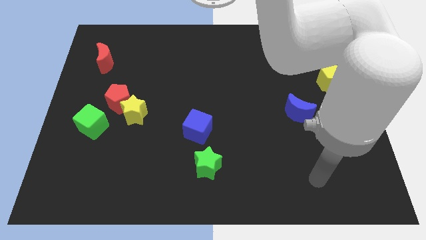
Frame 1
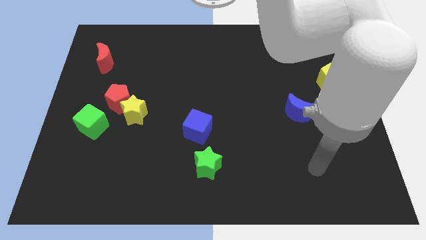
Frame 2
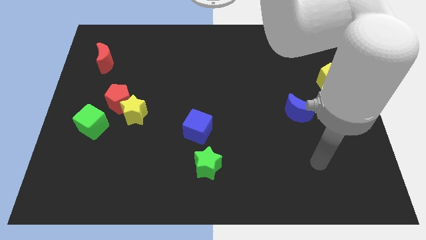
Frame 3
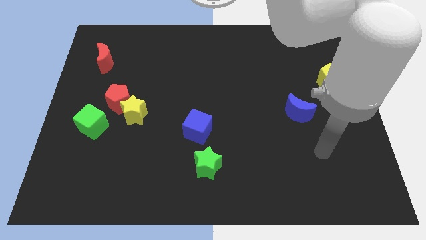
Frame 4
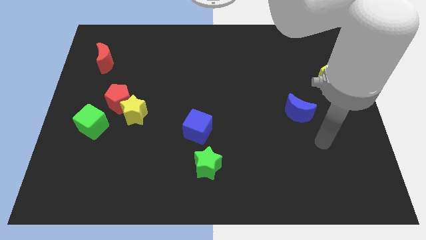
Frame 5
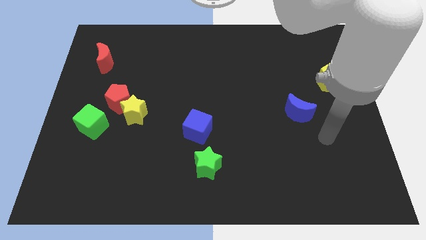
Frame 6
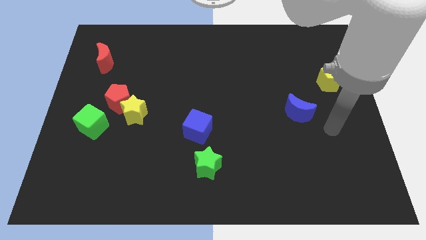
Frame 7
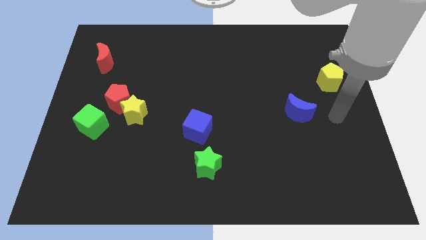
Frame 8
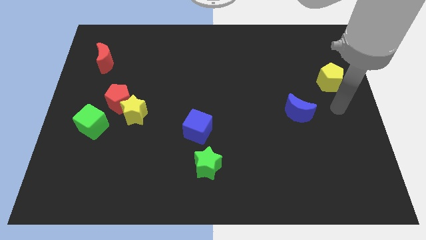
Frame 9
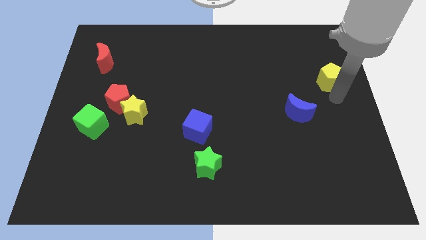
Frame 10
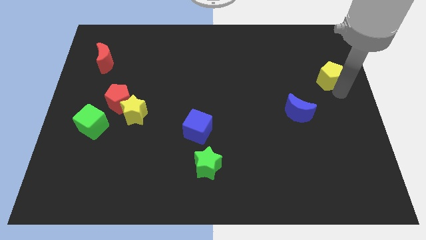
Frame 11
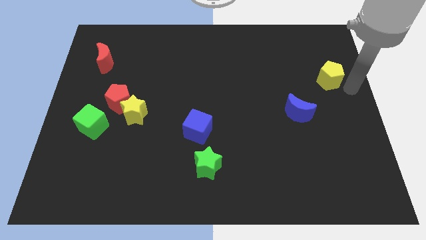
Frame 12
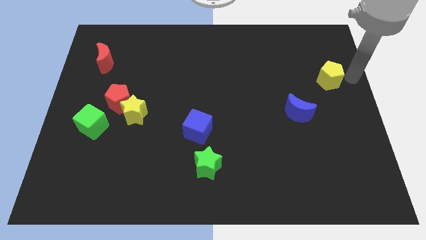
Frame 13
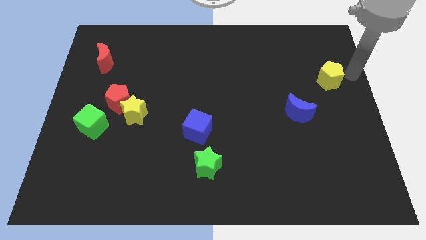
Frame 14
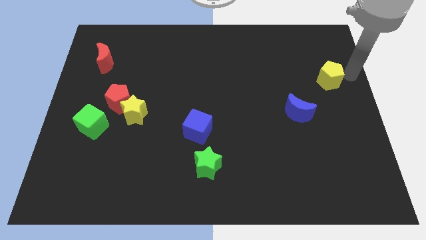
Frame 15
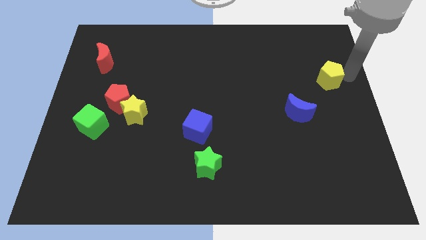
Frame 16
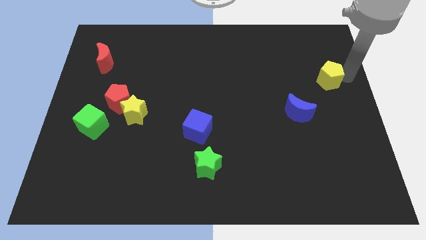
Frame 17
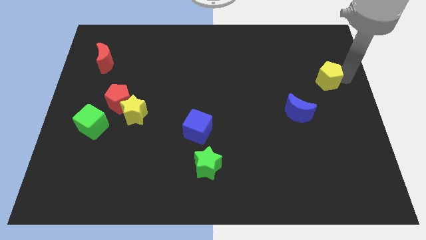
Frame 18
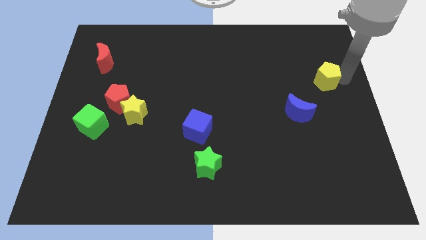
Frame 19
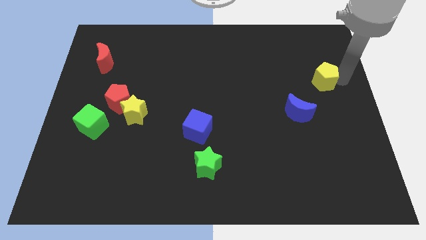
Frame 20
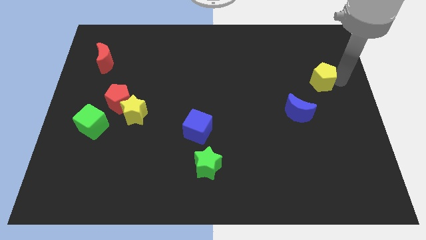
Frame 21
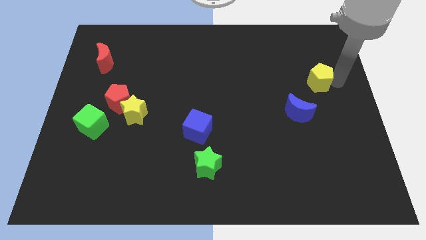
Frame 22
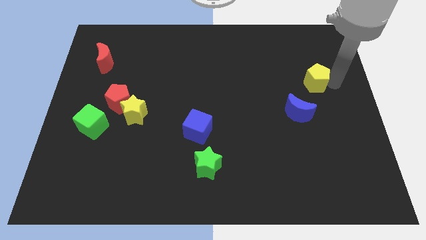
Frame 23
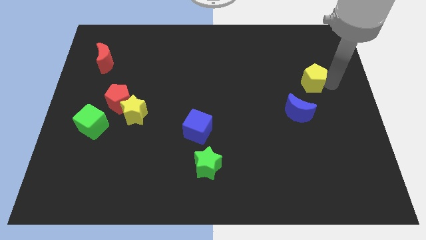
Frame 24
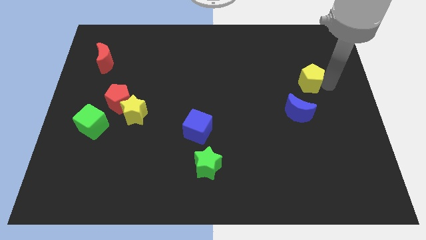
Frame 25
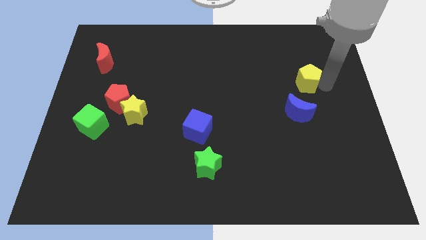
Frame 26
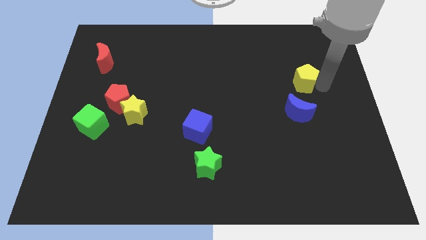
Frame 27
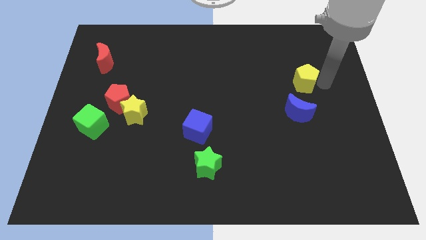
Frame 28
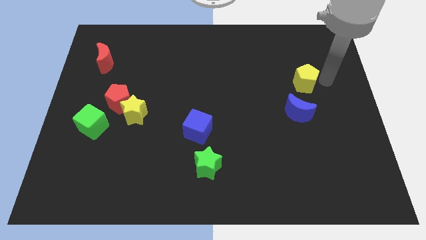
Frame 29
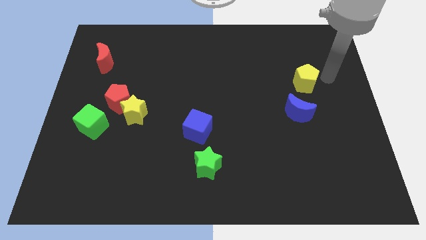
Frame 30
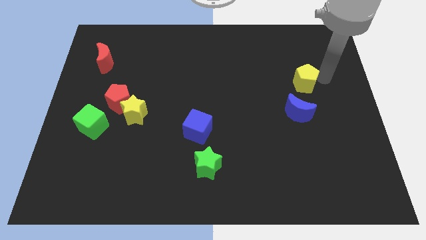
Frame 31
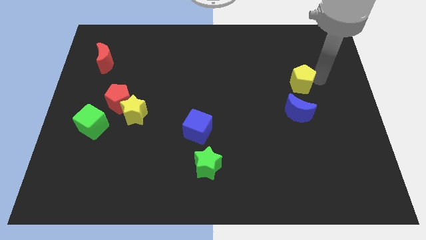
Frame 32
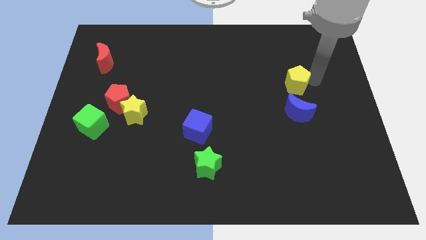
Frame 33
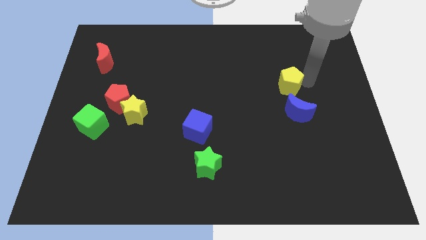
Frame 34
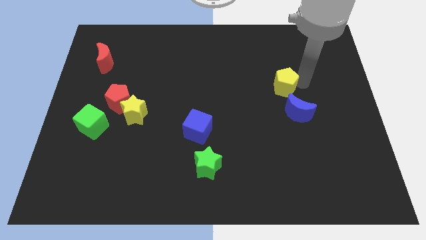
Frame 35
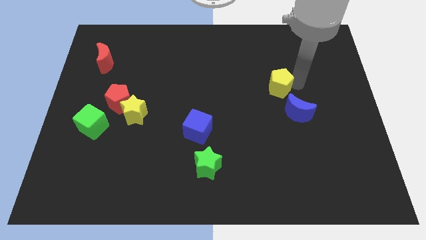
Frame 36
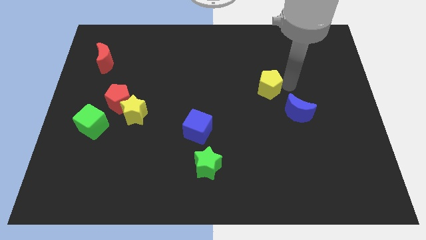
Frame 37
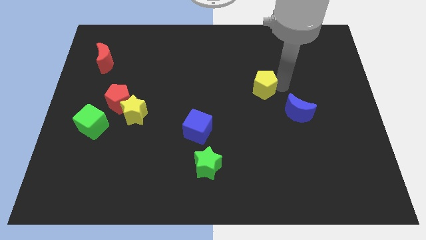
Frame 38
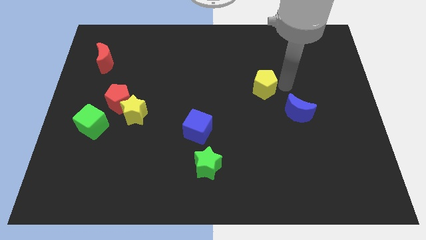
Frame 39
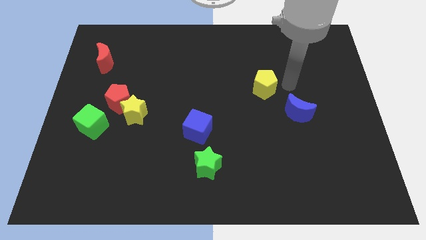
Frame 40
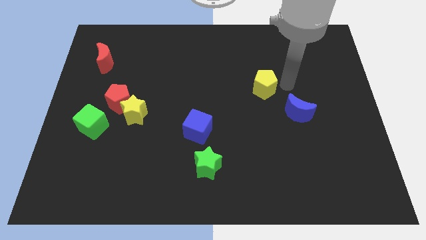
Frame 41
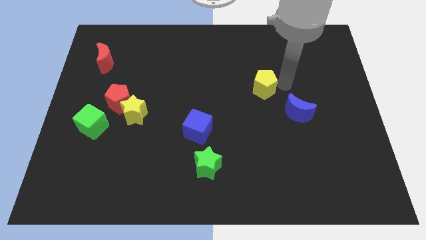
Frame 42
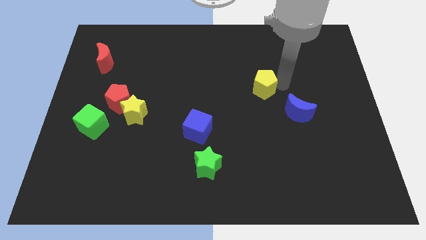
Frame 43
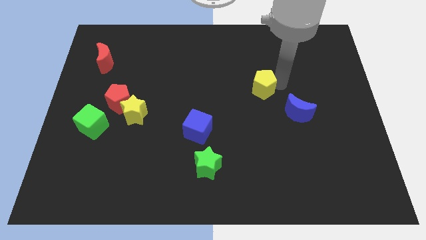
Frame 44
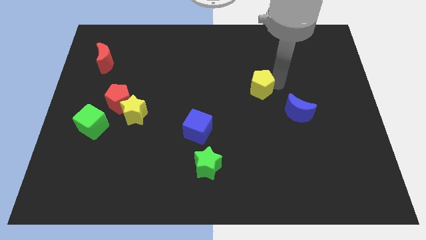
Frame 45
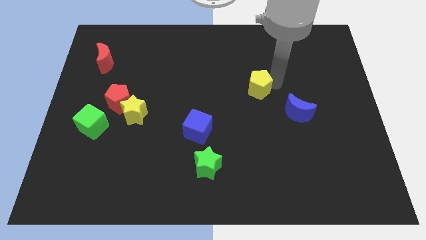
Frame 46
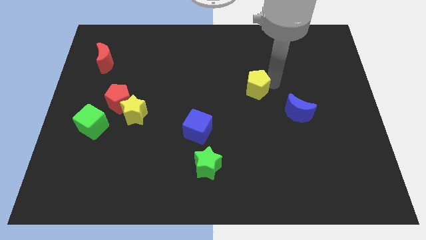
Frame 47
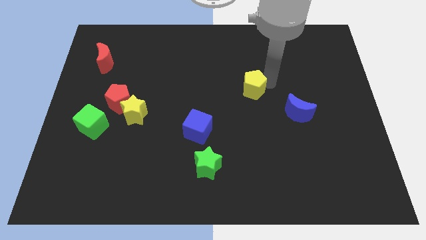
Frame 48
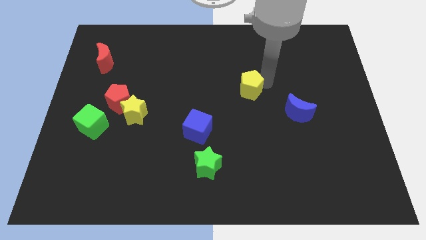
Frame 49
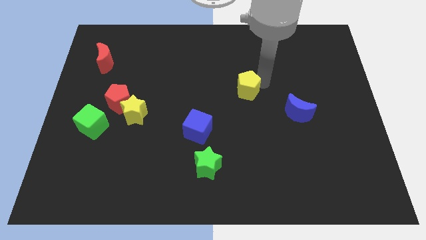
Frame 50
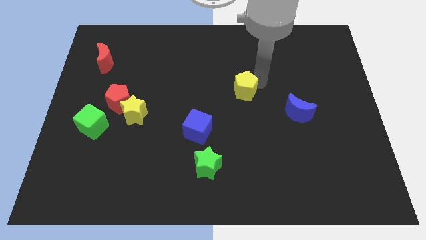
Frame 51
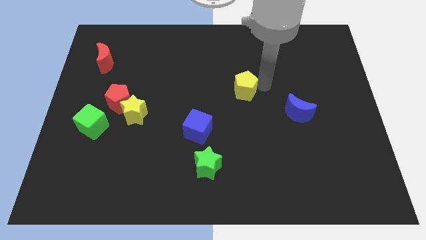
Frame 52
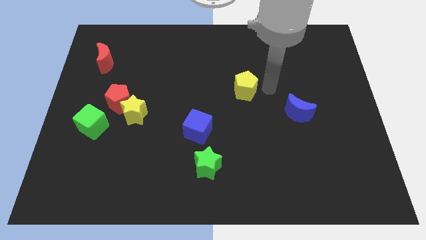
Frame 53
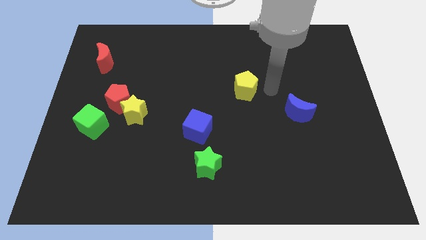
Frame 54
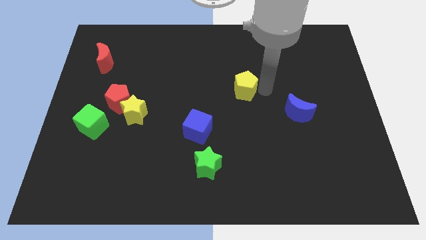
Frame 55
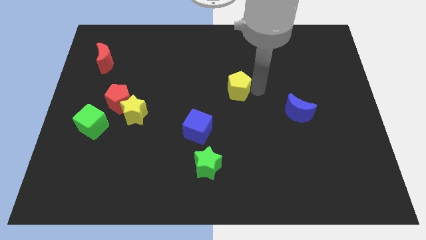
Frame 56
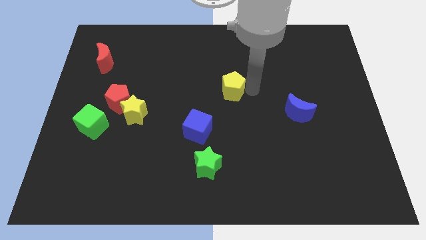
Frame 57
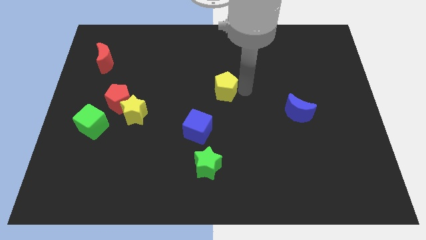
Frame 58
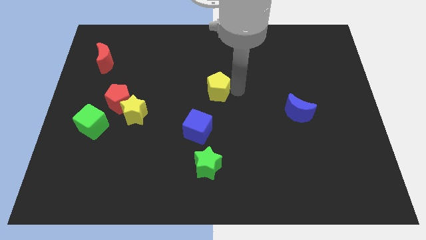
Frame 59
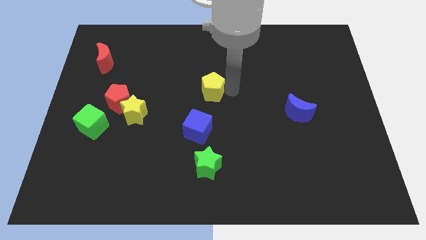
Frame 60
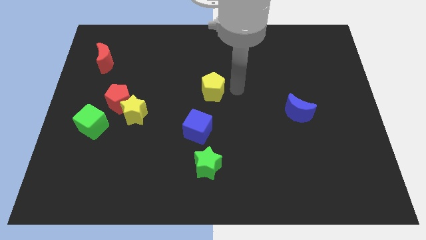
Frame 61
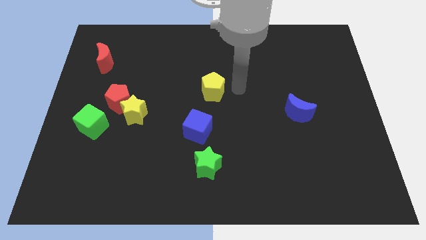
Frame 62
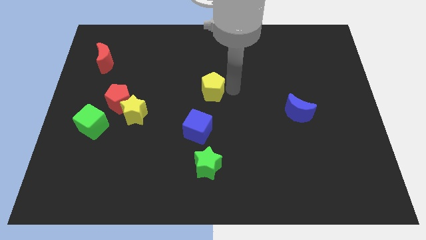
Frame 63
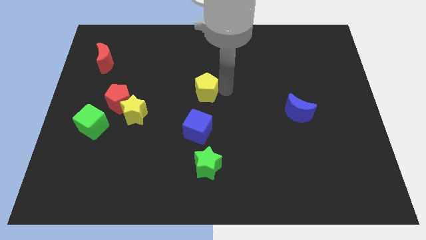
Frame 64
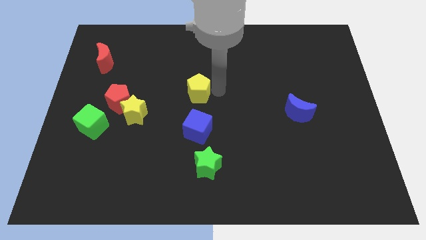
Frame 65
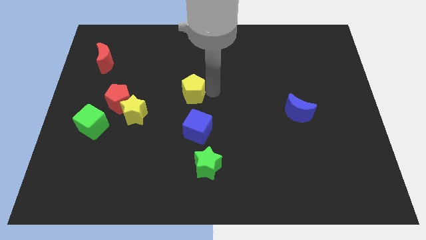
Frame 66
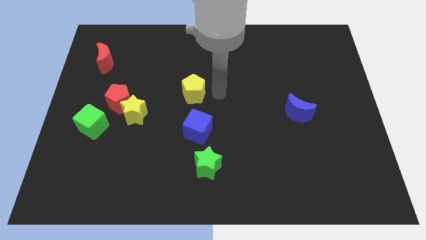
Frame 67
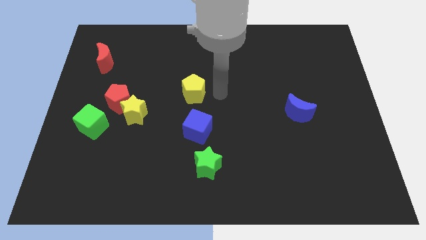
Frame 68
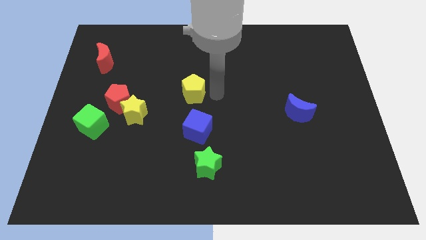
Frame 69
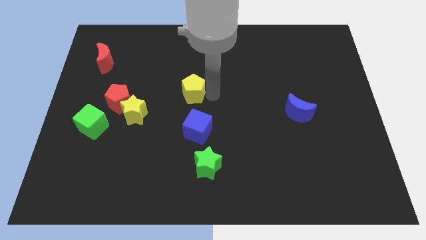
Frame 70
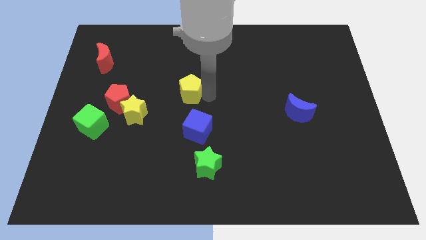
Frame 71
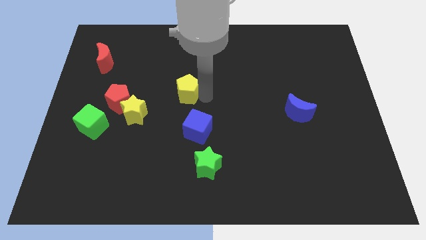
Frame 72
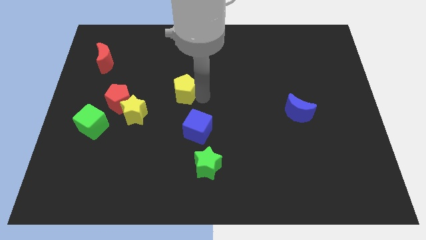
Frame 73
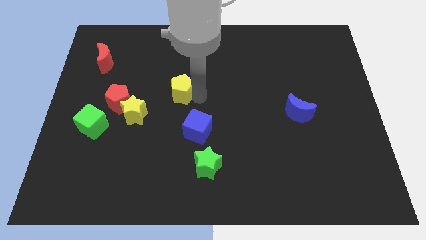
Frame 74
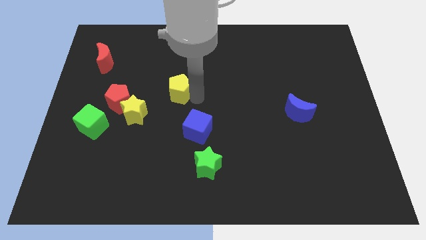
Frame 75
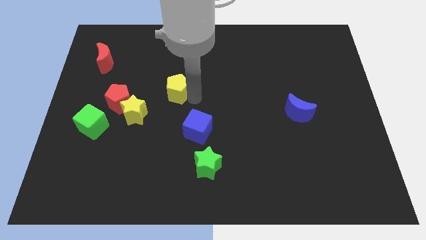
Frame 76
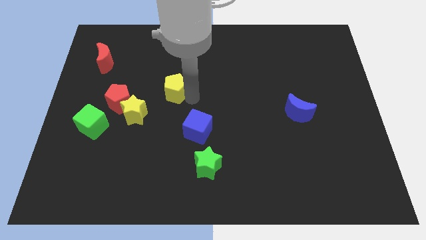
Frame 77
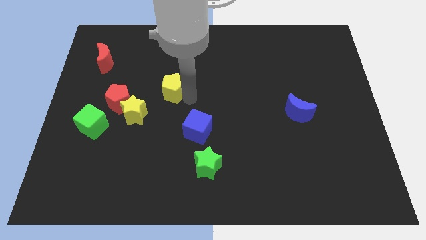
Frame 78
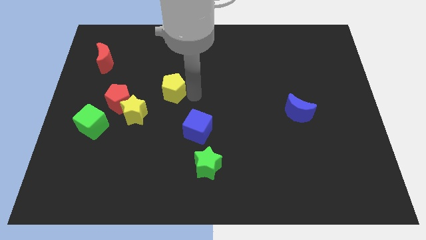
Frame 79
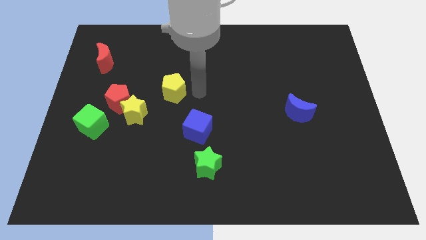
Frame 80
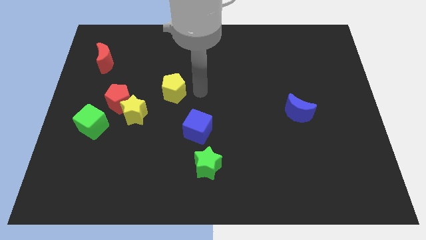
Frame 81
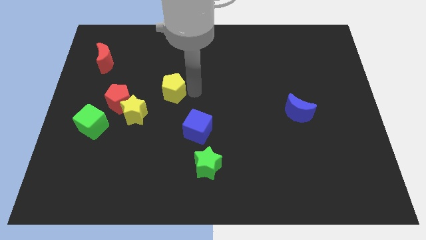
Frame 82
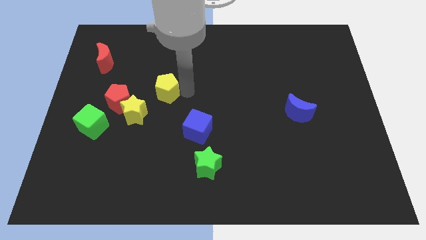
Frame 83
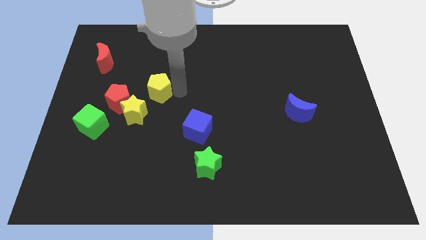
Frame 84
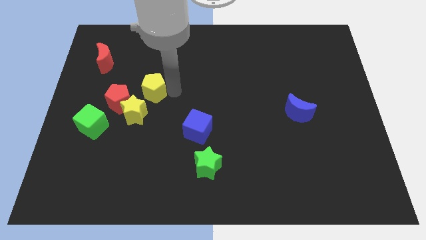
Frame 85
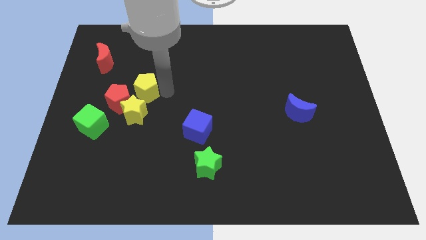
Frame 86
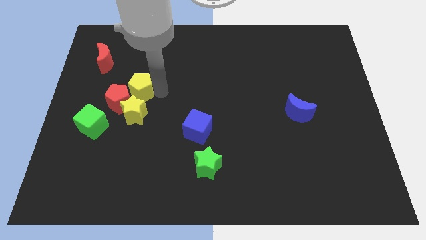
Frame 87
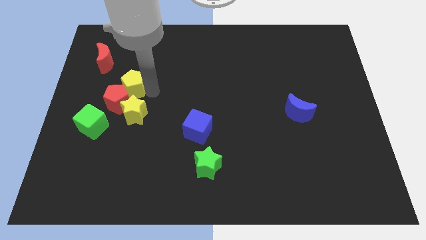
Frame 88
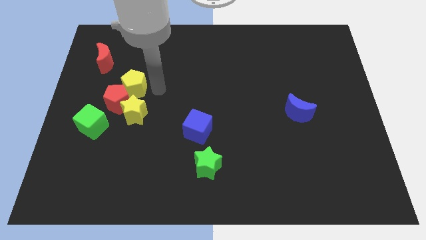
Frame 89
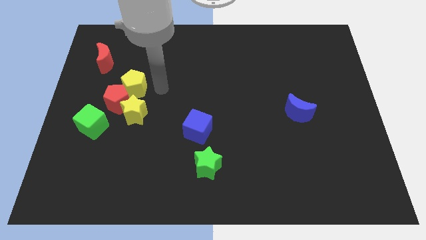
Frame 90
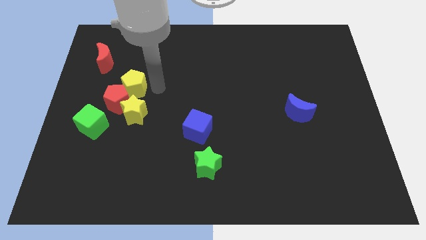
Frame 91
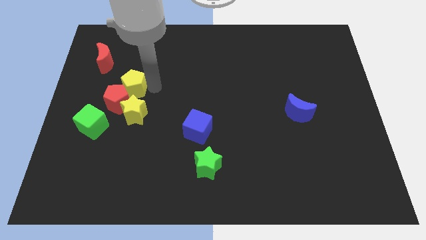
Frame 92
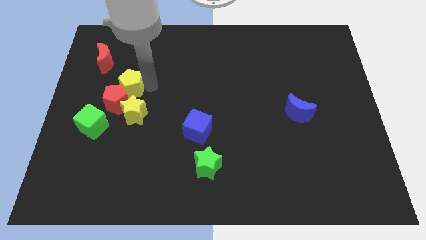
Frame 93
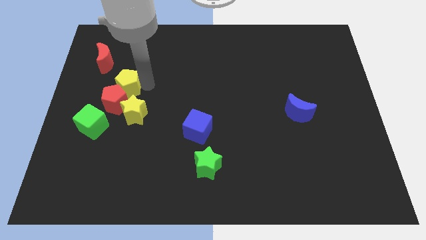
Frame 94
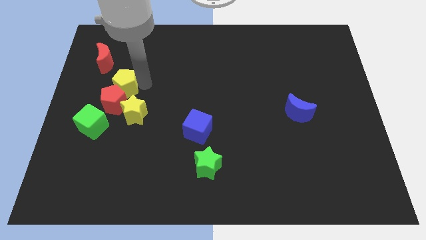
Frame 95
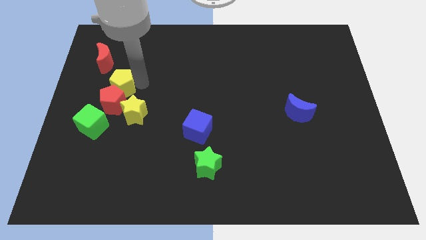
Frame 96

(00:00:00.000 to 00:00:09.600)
move the yellow pentagon to the top left of the red pentagon
